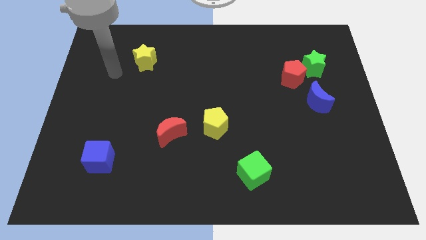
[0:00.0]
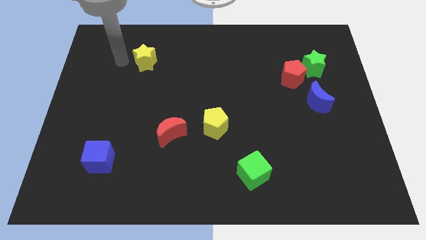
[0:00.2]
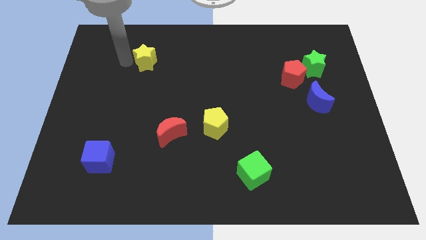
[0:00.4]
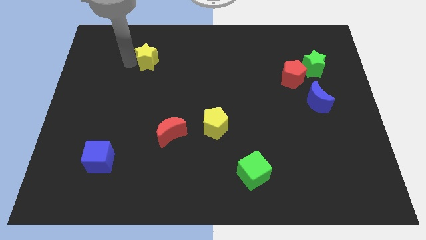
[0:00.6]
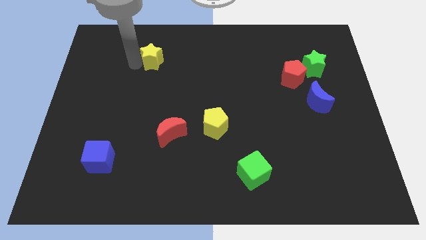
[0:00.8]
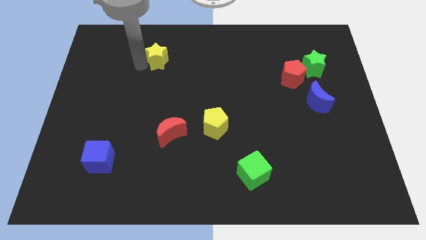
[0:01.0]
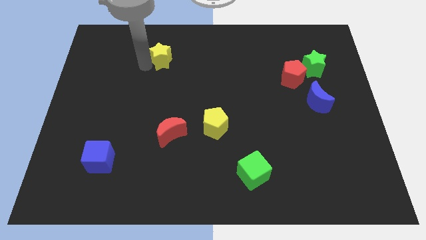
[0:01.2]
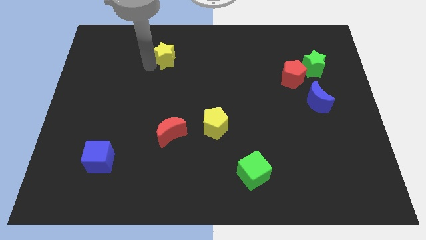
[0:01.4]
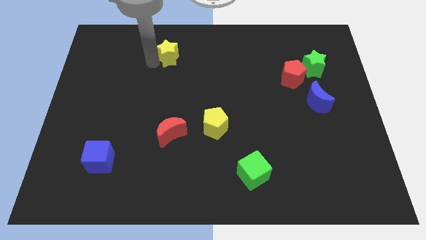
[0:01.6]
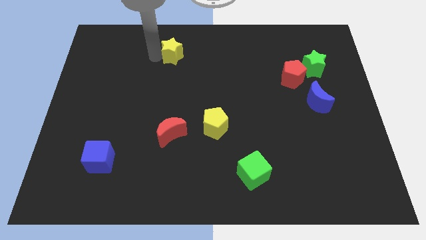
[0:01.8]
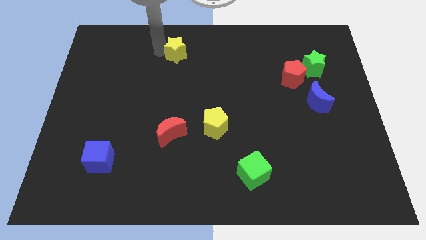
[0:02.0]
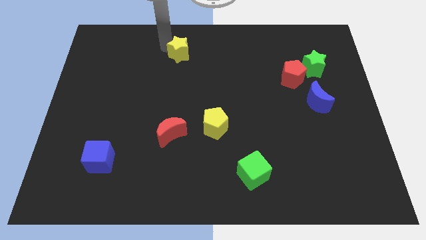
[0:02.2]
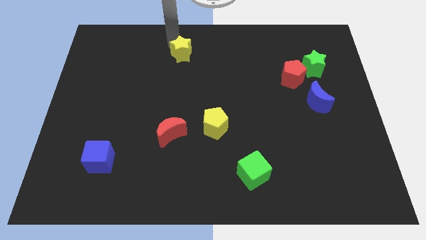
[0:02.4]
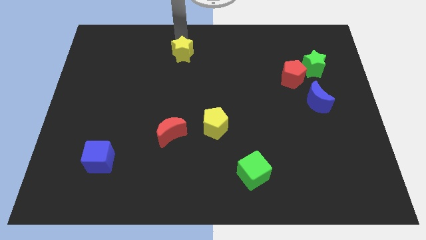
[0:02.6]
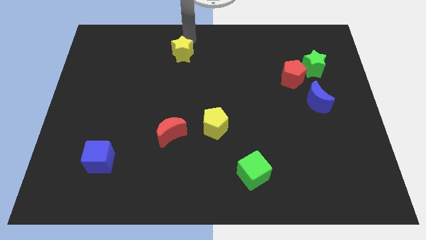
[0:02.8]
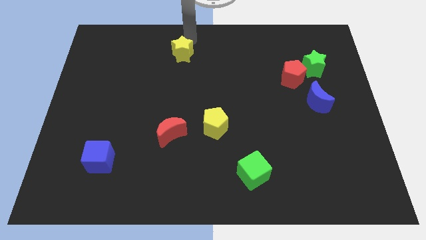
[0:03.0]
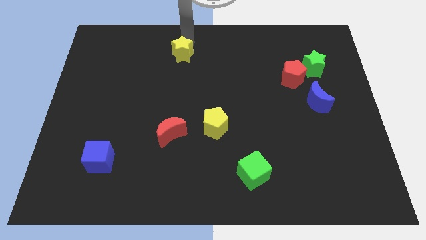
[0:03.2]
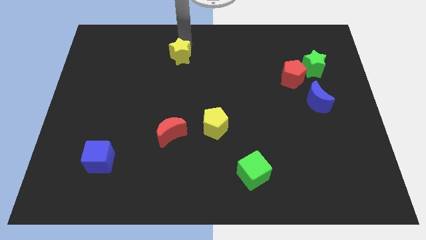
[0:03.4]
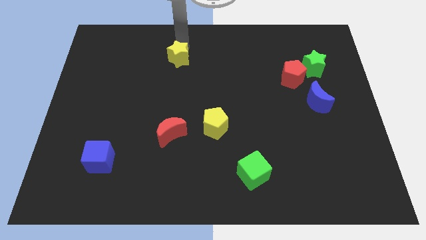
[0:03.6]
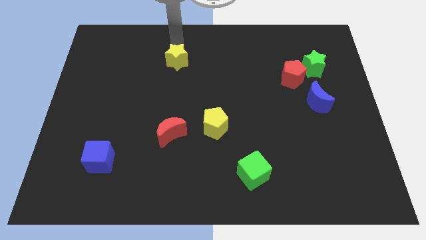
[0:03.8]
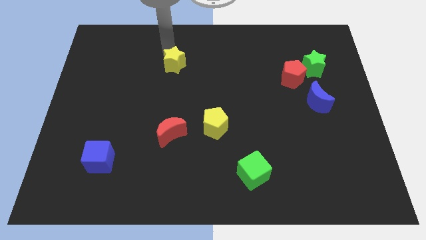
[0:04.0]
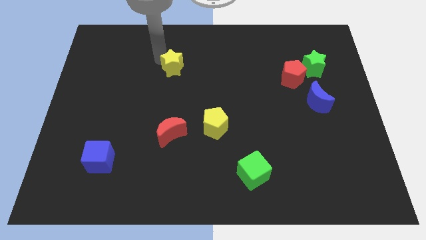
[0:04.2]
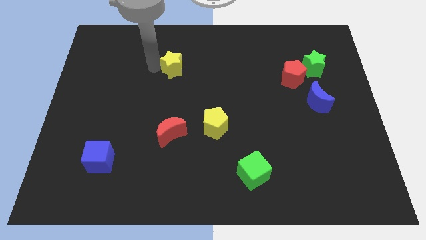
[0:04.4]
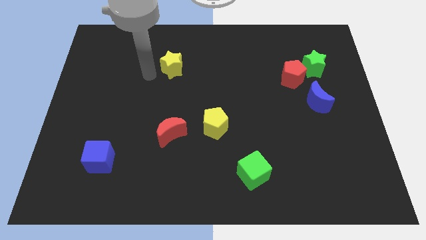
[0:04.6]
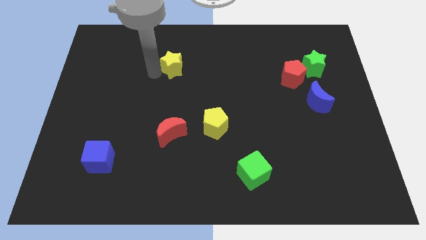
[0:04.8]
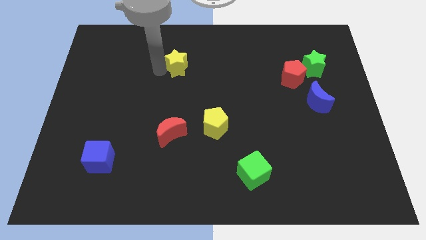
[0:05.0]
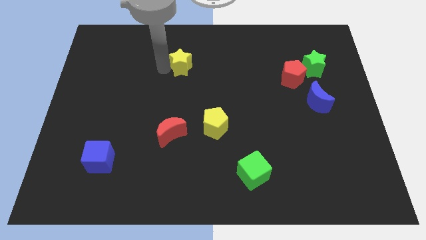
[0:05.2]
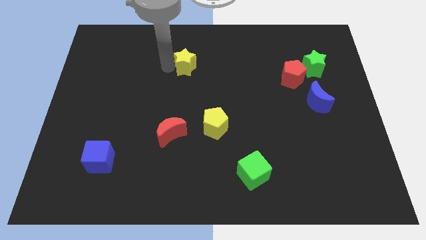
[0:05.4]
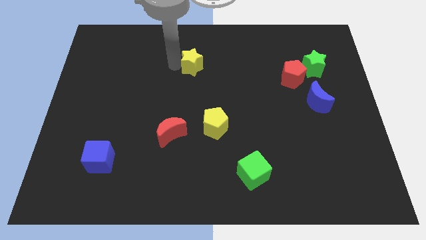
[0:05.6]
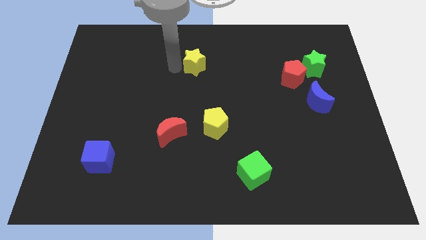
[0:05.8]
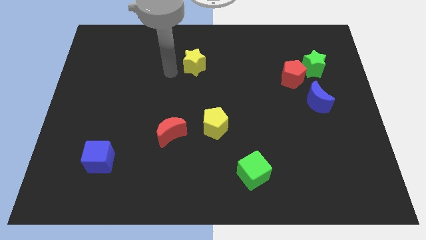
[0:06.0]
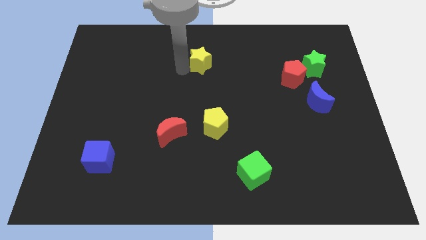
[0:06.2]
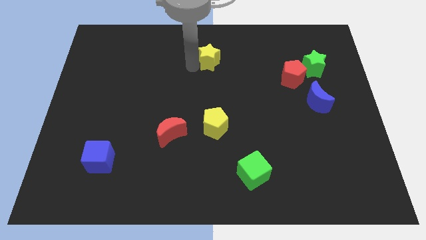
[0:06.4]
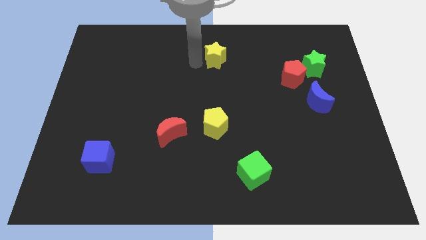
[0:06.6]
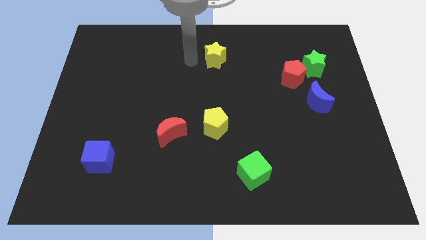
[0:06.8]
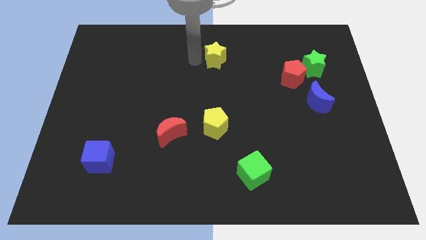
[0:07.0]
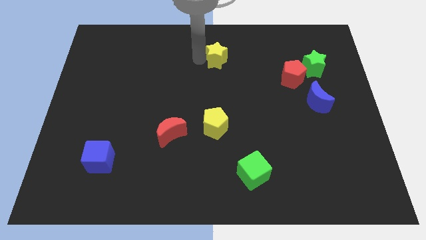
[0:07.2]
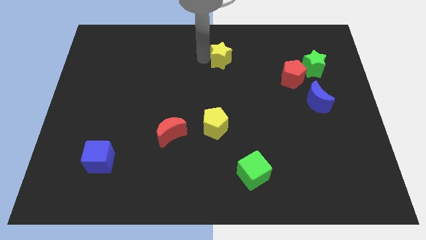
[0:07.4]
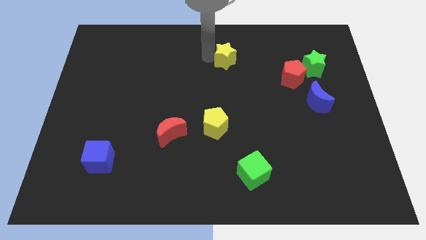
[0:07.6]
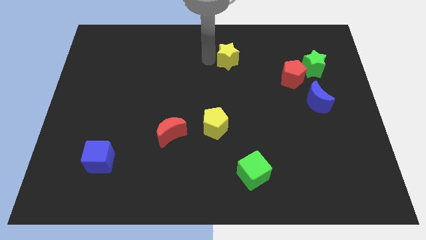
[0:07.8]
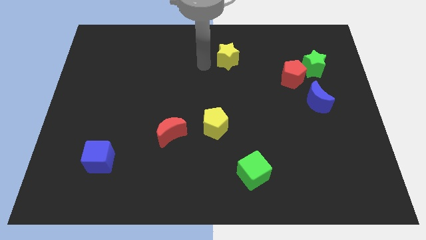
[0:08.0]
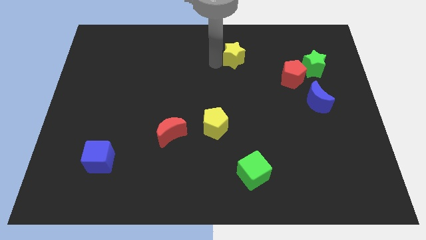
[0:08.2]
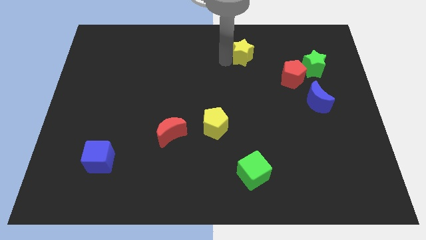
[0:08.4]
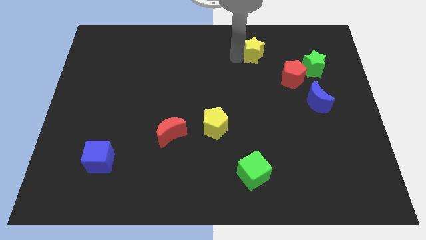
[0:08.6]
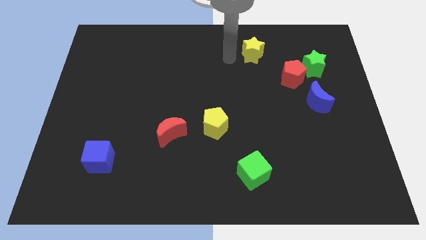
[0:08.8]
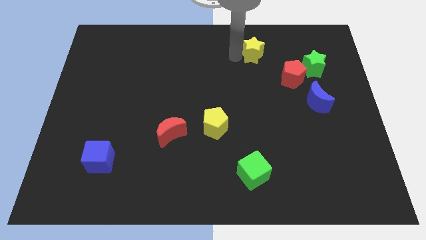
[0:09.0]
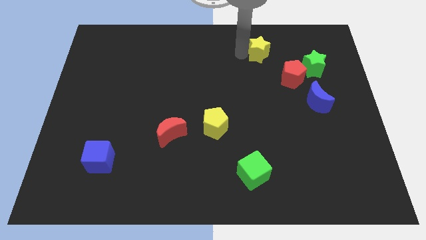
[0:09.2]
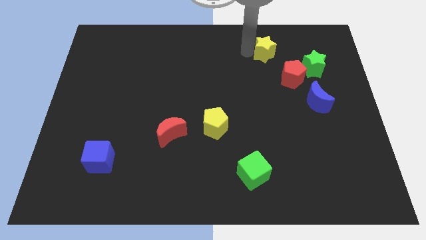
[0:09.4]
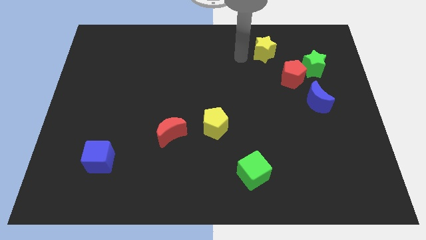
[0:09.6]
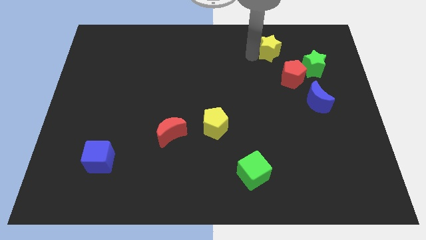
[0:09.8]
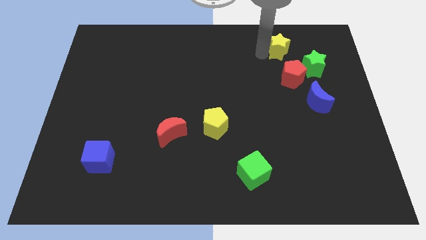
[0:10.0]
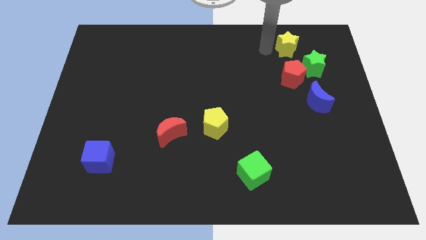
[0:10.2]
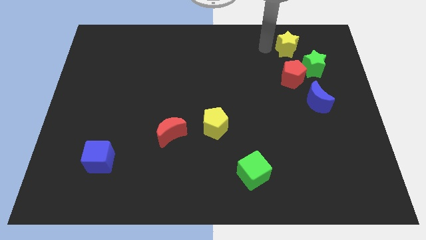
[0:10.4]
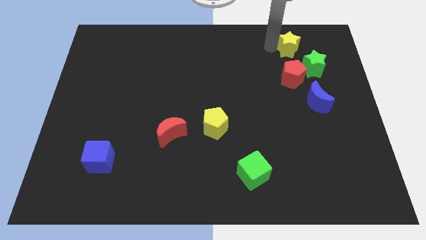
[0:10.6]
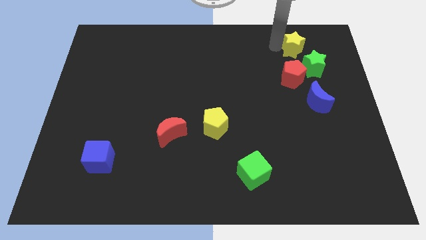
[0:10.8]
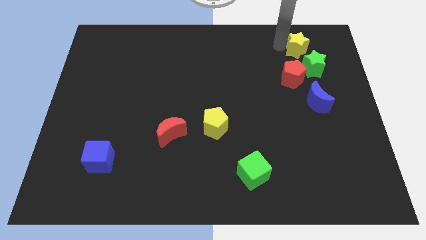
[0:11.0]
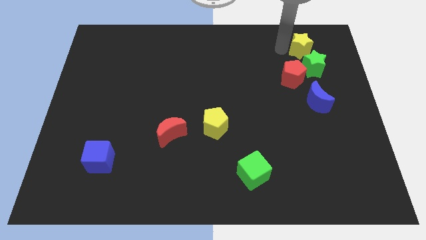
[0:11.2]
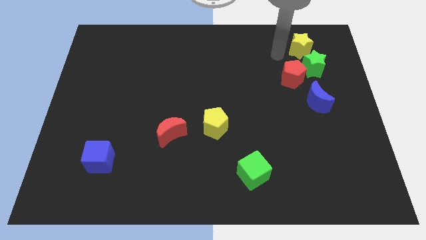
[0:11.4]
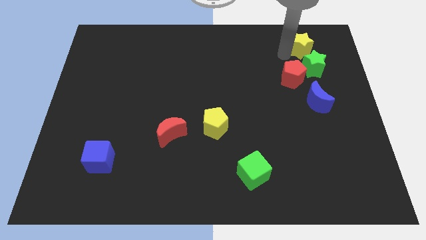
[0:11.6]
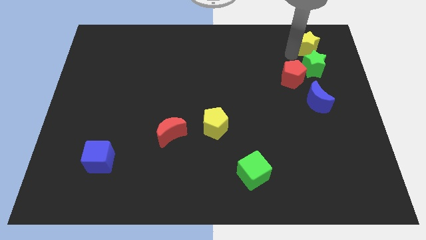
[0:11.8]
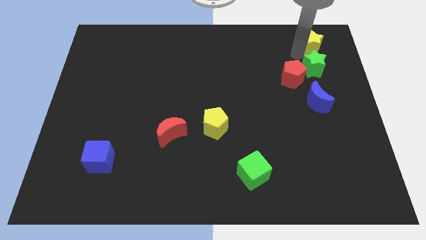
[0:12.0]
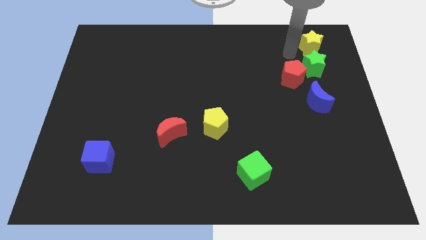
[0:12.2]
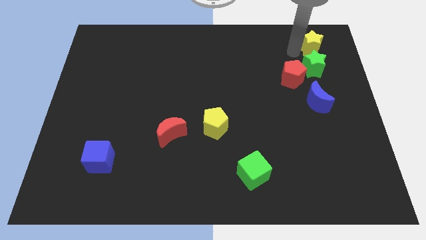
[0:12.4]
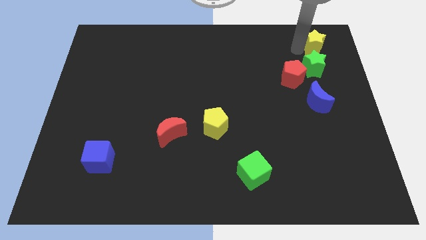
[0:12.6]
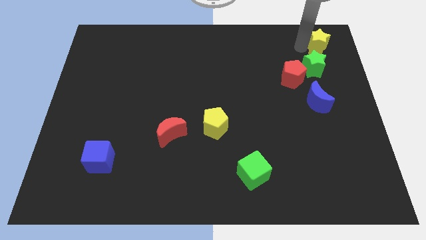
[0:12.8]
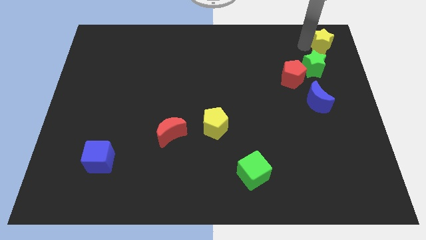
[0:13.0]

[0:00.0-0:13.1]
move the yellow star to the top right corner
